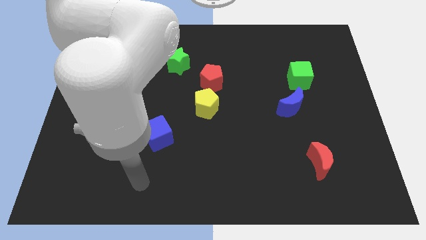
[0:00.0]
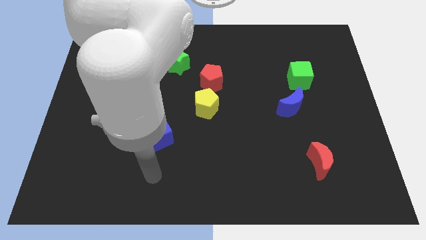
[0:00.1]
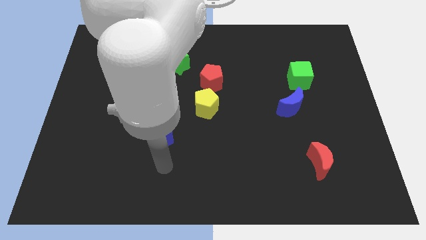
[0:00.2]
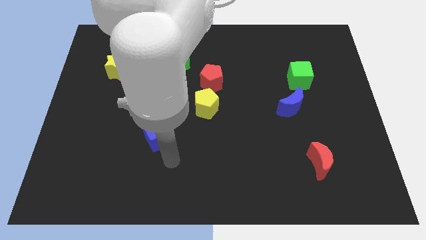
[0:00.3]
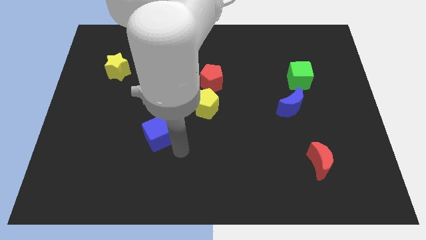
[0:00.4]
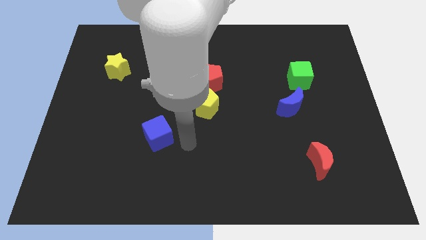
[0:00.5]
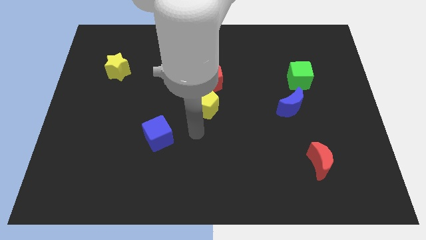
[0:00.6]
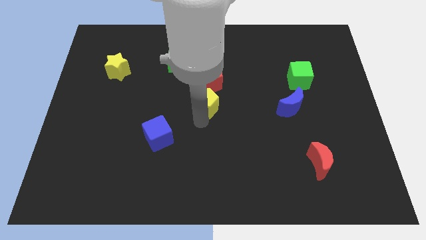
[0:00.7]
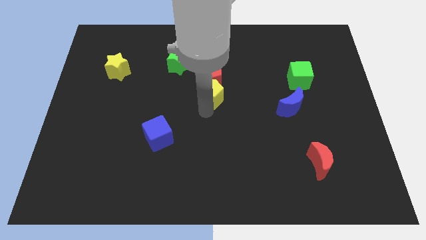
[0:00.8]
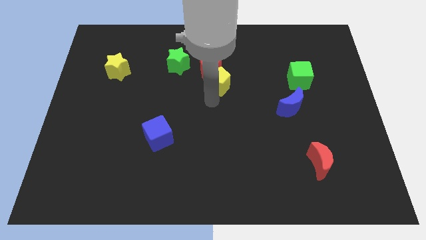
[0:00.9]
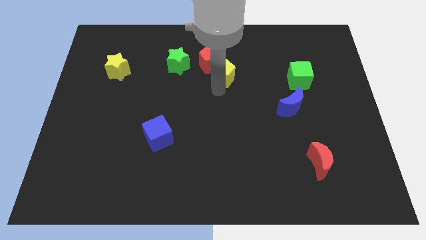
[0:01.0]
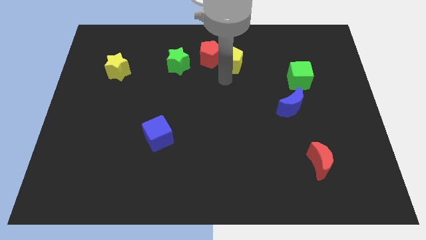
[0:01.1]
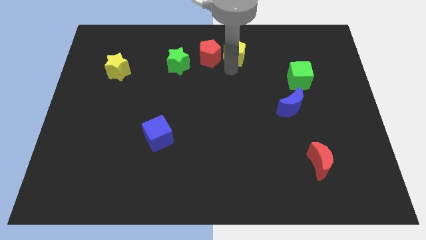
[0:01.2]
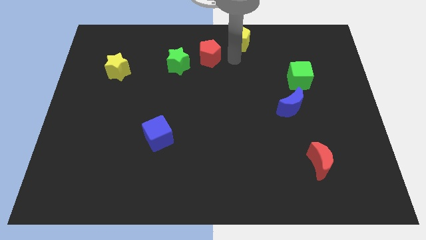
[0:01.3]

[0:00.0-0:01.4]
move the red pentagon away from the yellow pentagon

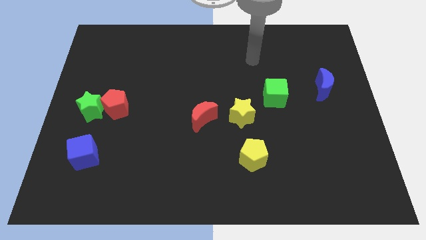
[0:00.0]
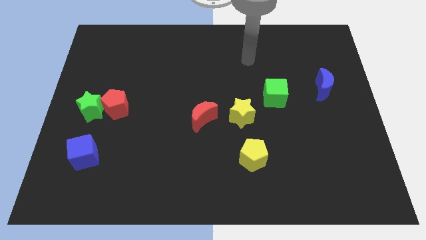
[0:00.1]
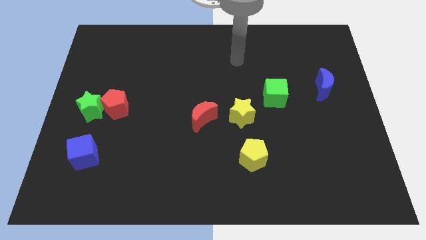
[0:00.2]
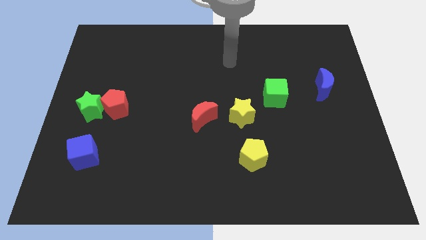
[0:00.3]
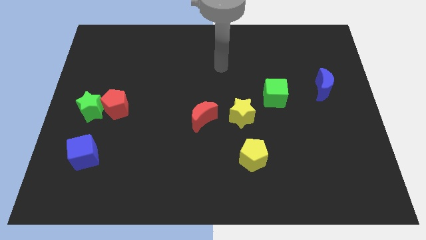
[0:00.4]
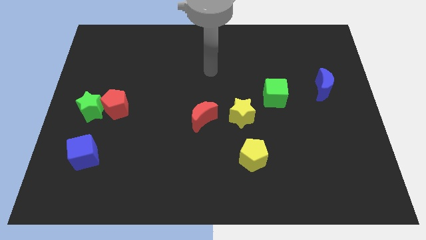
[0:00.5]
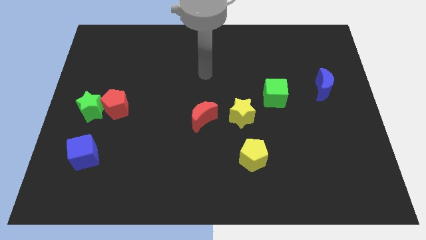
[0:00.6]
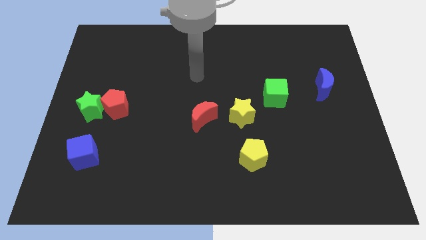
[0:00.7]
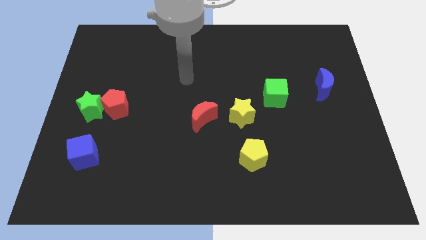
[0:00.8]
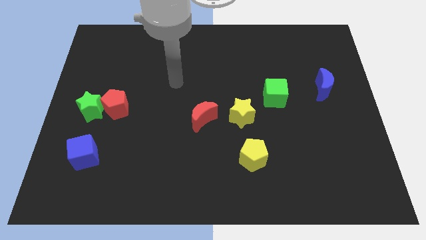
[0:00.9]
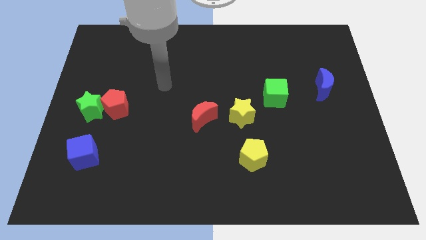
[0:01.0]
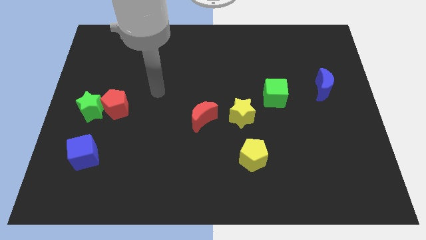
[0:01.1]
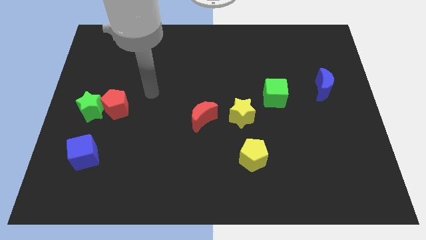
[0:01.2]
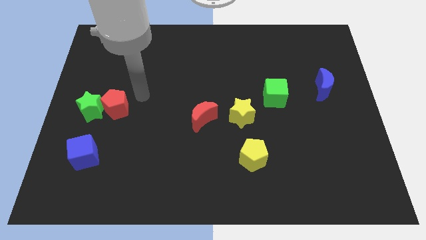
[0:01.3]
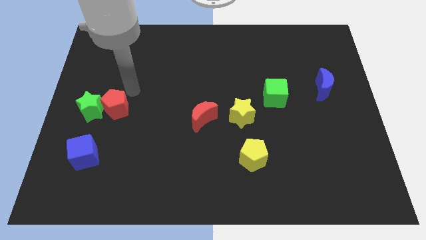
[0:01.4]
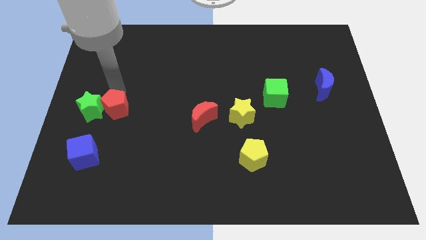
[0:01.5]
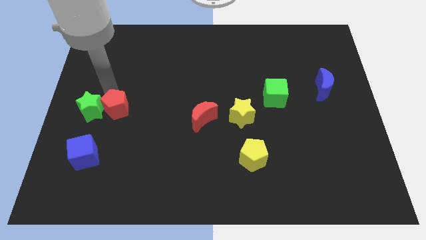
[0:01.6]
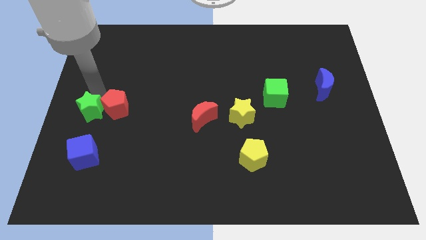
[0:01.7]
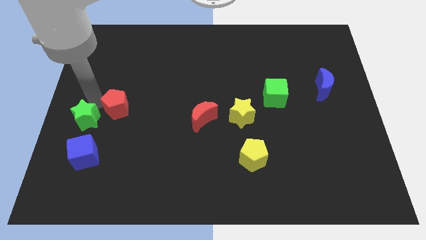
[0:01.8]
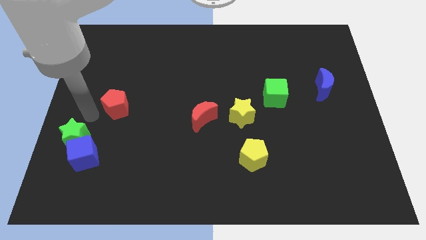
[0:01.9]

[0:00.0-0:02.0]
separate the red pentagon from the green star

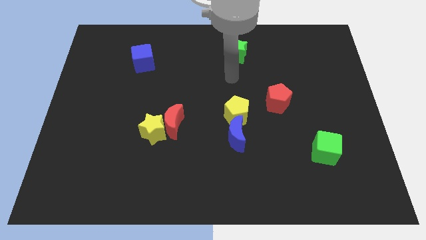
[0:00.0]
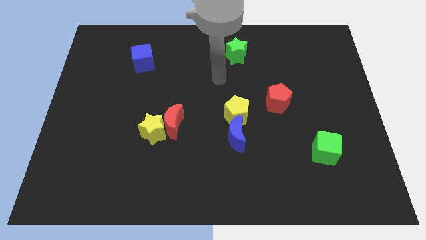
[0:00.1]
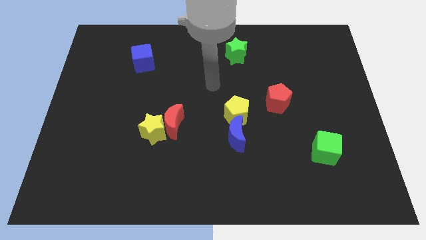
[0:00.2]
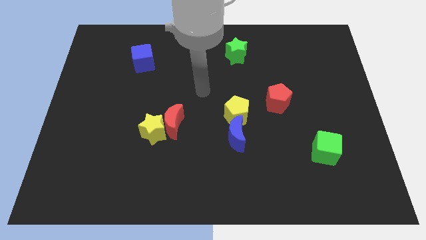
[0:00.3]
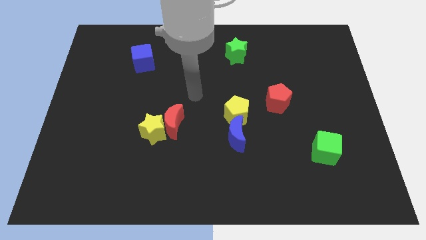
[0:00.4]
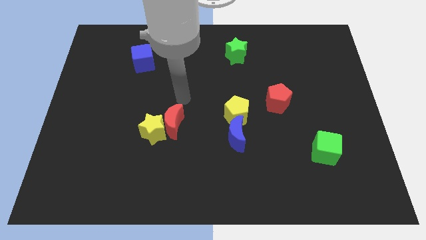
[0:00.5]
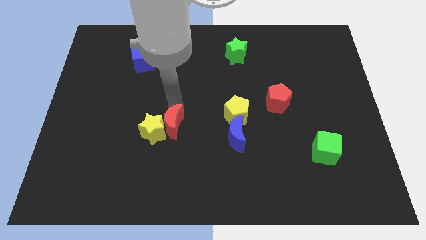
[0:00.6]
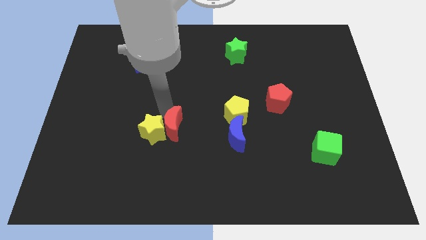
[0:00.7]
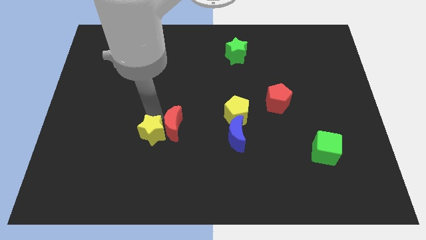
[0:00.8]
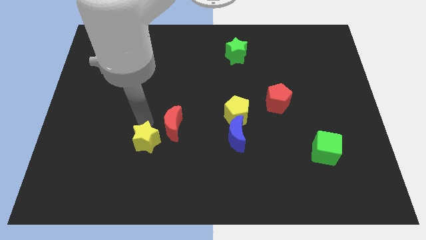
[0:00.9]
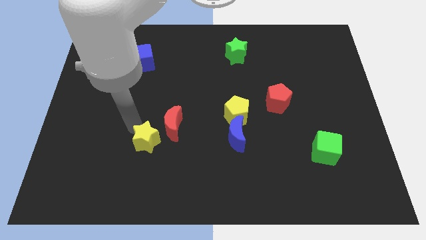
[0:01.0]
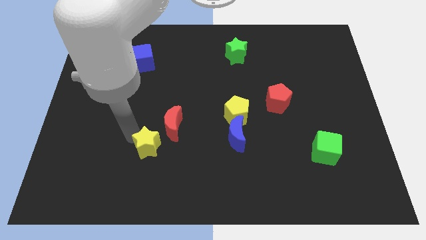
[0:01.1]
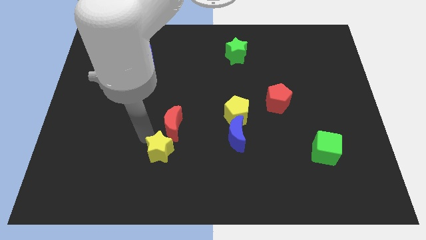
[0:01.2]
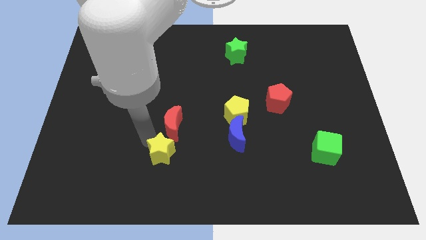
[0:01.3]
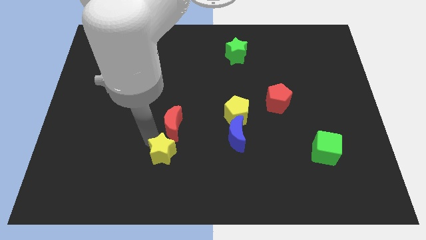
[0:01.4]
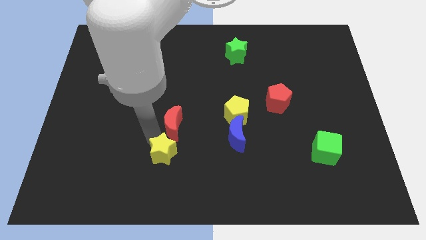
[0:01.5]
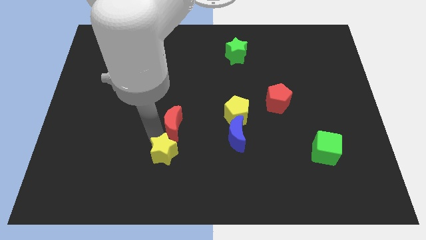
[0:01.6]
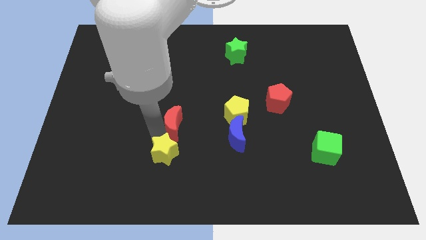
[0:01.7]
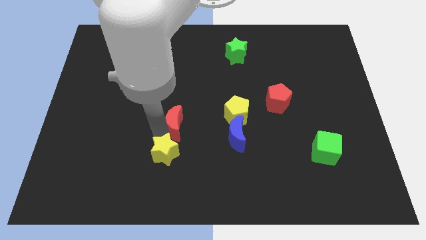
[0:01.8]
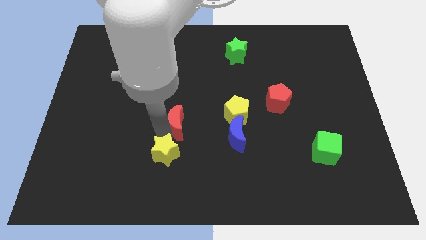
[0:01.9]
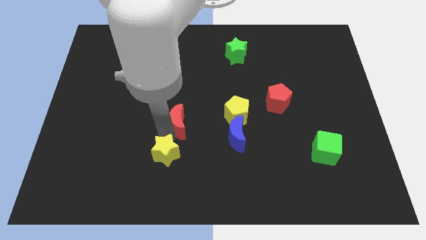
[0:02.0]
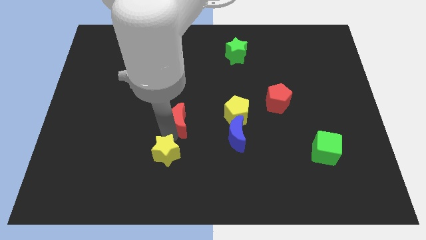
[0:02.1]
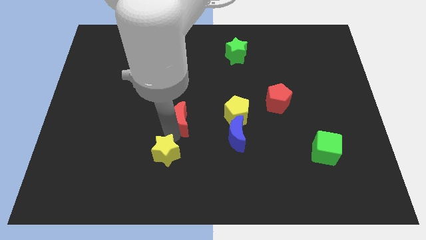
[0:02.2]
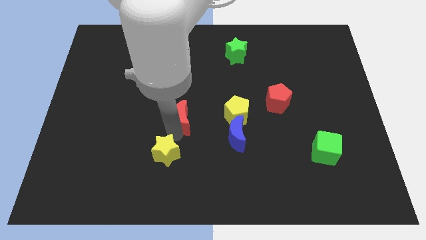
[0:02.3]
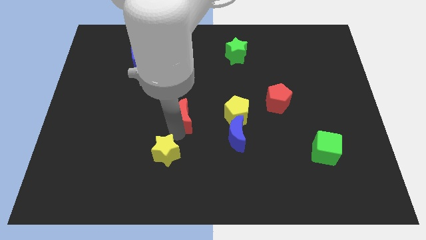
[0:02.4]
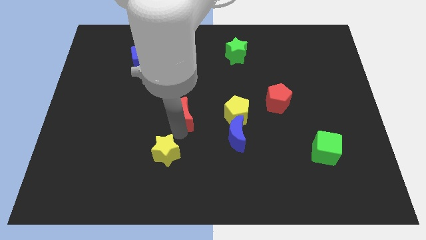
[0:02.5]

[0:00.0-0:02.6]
pull the red moon apart from the yellow star

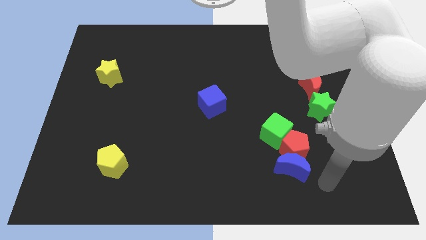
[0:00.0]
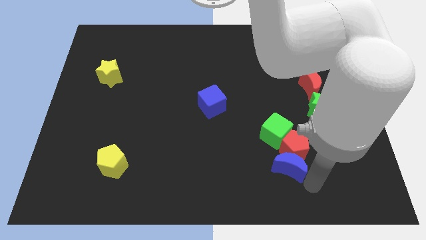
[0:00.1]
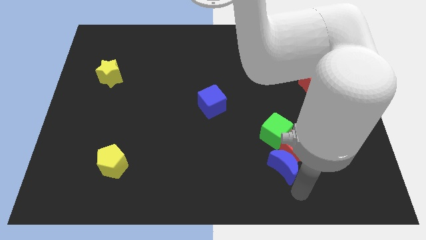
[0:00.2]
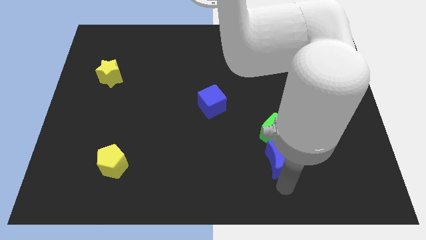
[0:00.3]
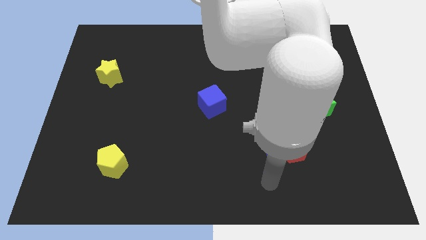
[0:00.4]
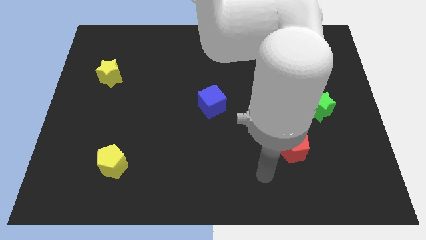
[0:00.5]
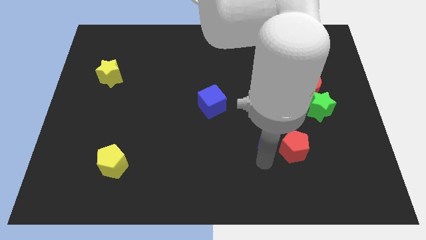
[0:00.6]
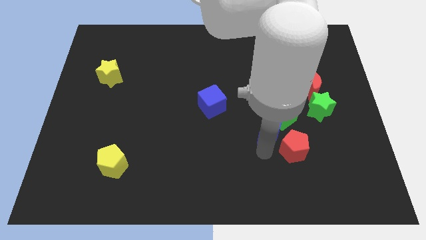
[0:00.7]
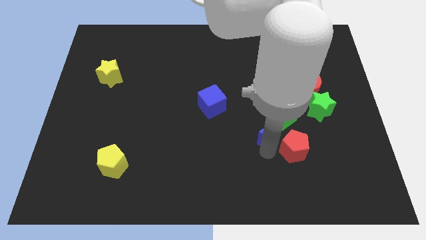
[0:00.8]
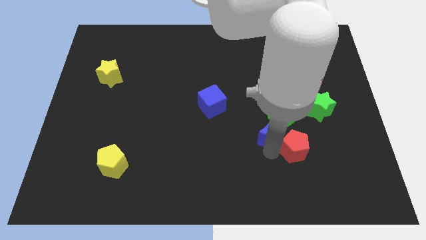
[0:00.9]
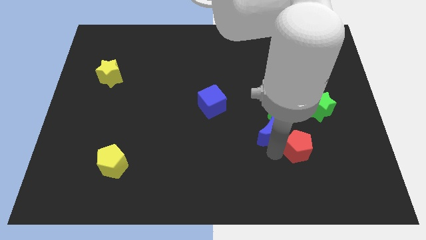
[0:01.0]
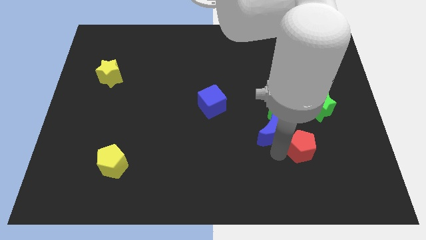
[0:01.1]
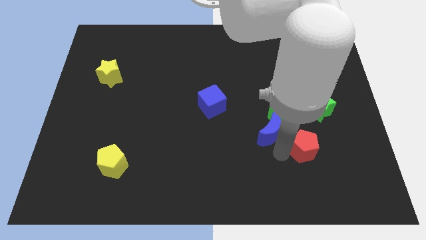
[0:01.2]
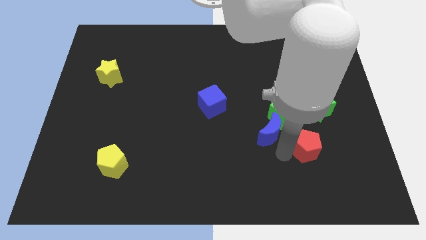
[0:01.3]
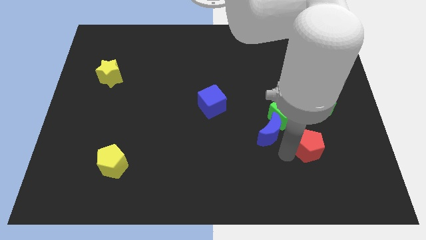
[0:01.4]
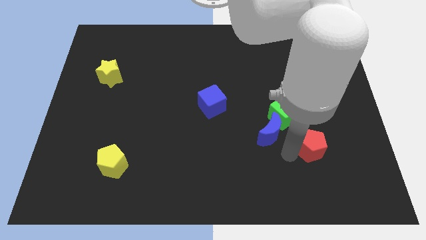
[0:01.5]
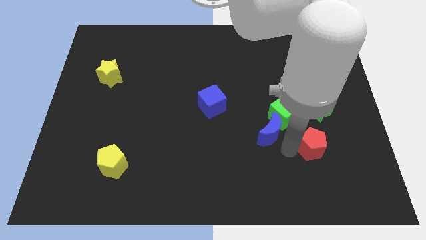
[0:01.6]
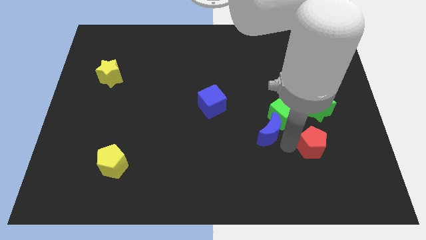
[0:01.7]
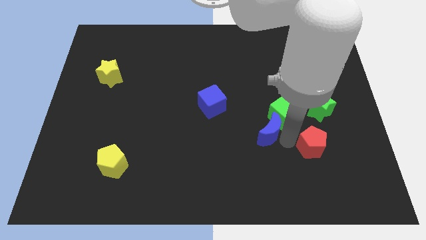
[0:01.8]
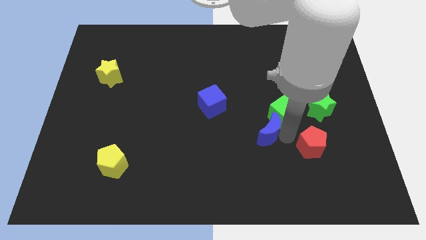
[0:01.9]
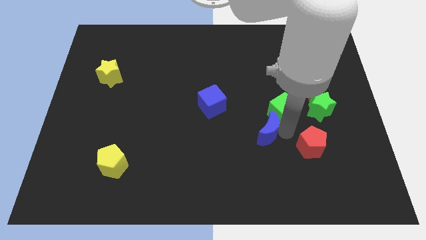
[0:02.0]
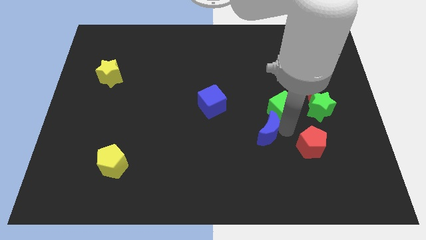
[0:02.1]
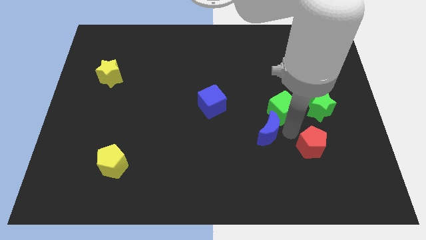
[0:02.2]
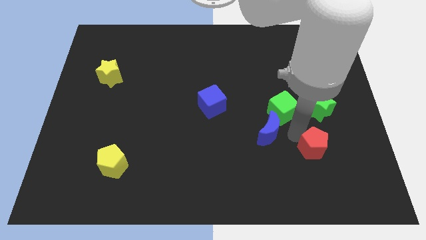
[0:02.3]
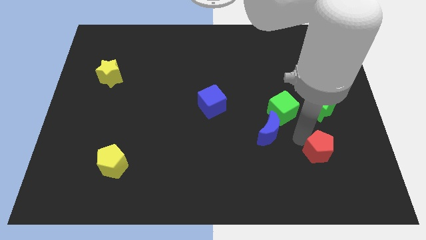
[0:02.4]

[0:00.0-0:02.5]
pull the red pentagon apart from the blue moon and green cube

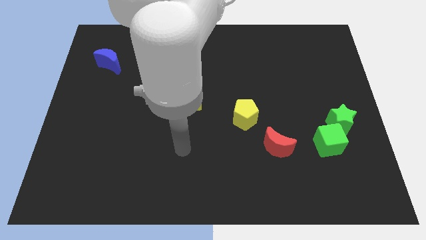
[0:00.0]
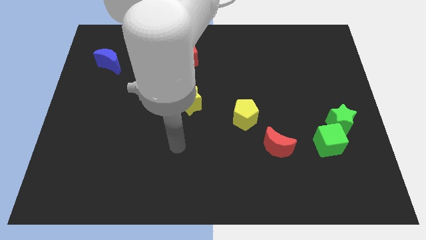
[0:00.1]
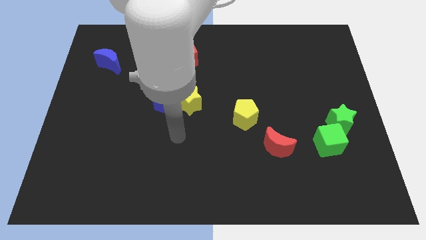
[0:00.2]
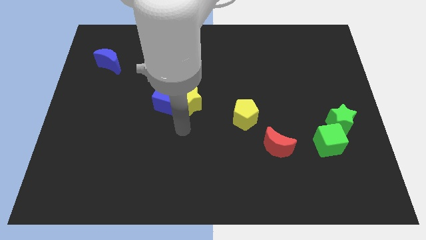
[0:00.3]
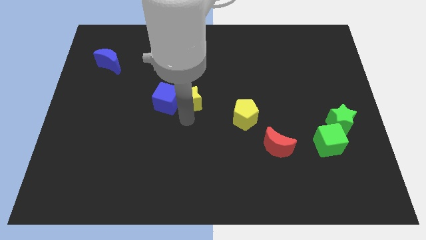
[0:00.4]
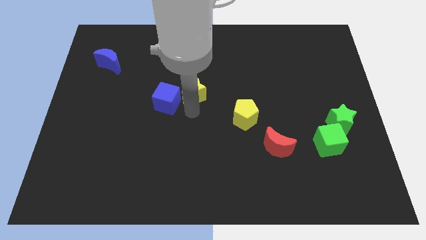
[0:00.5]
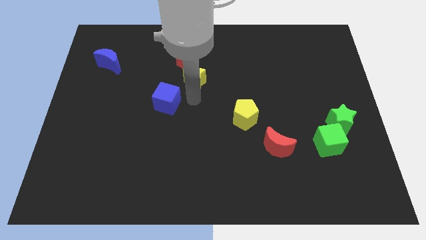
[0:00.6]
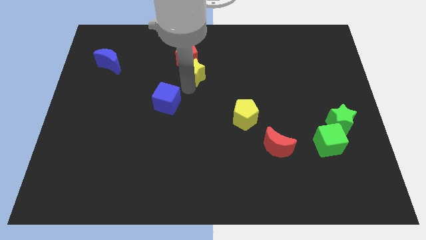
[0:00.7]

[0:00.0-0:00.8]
separate the blue cube from the yellow star
